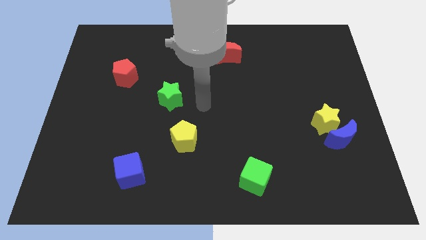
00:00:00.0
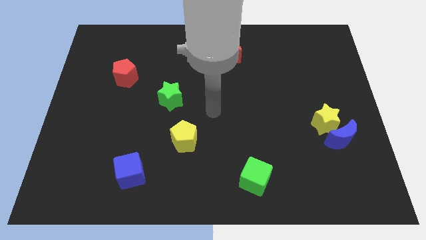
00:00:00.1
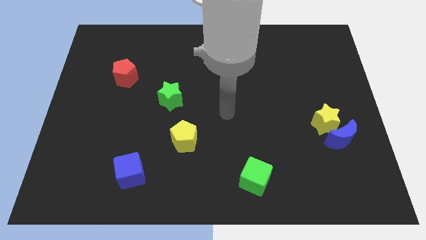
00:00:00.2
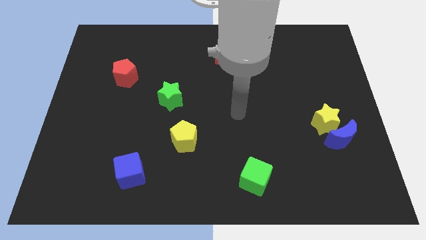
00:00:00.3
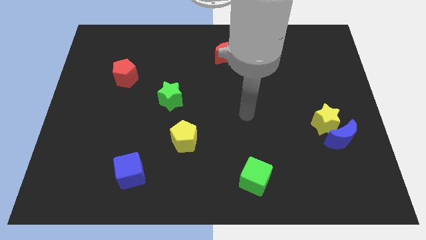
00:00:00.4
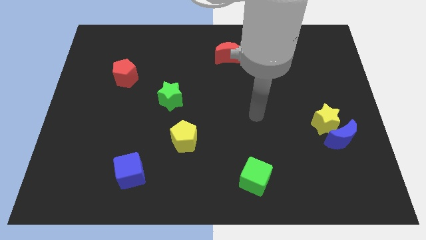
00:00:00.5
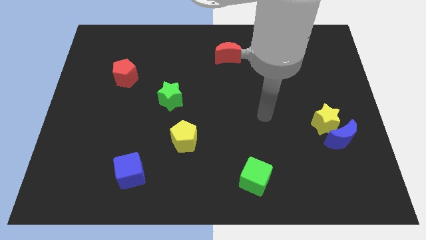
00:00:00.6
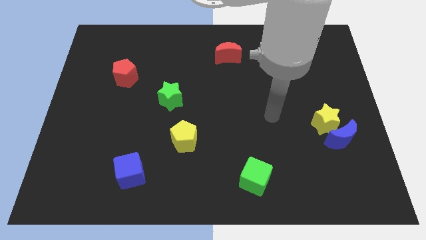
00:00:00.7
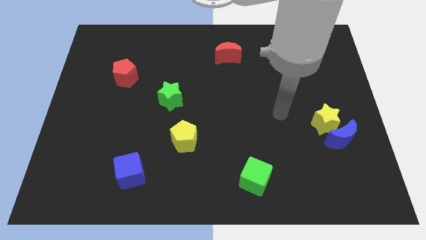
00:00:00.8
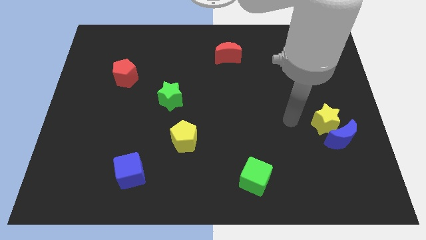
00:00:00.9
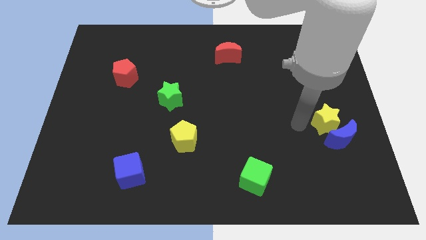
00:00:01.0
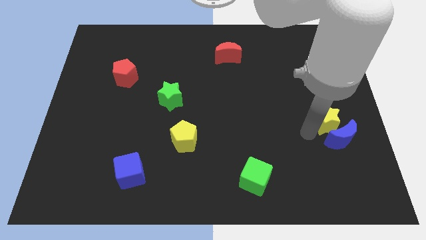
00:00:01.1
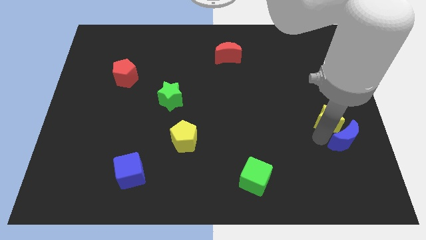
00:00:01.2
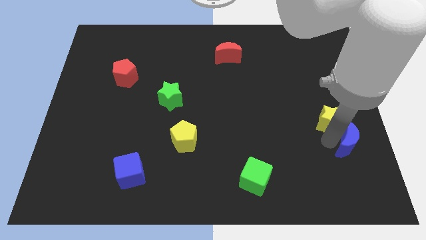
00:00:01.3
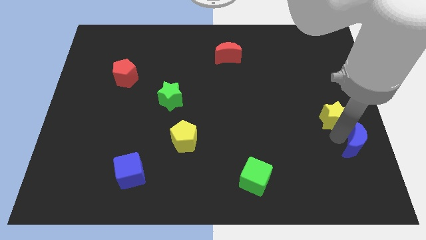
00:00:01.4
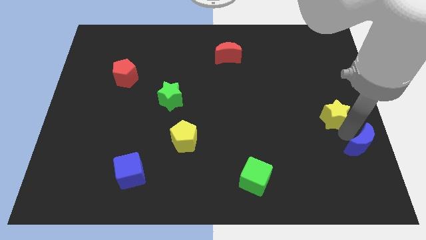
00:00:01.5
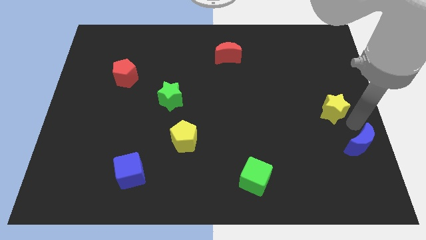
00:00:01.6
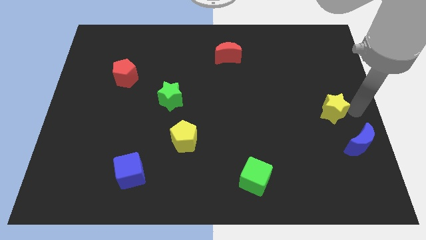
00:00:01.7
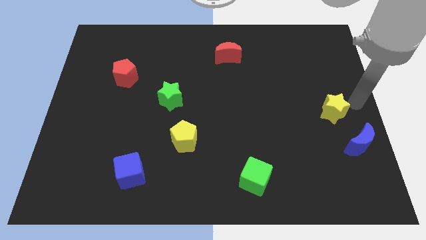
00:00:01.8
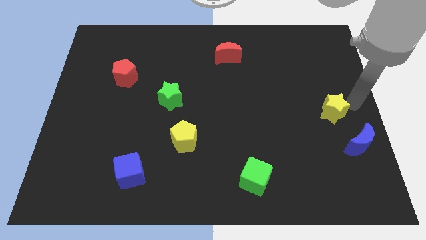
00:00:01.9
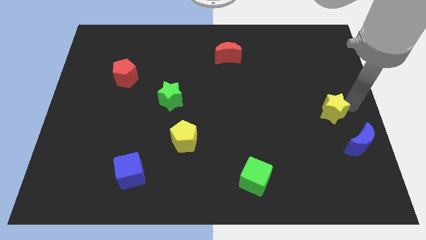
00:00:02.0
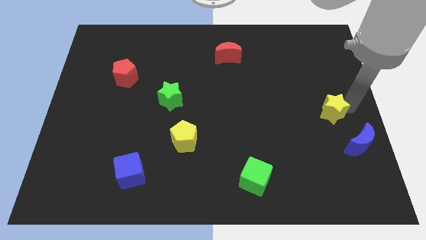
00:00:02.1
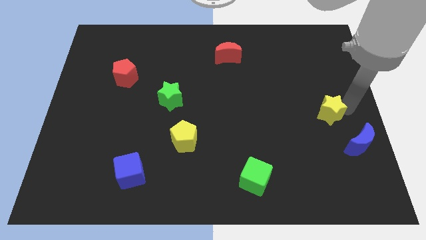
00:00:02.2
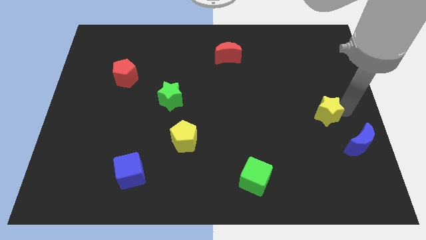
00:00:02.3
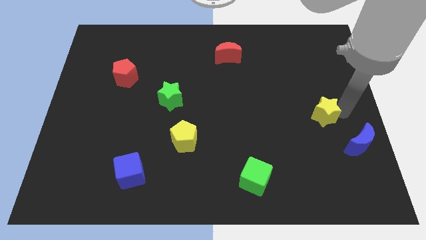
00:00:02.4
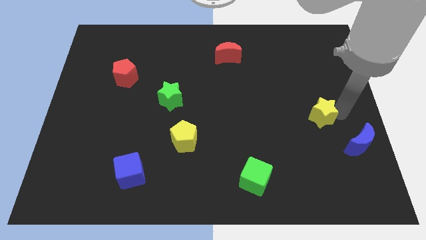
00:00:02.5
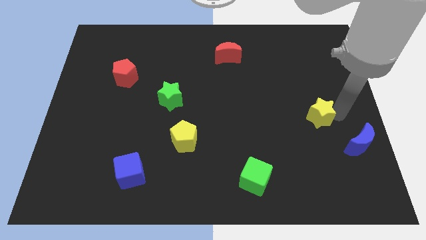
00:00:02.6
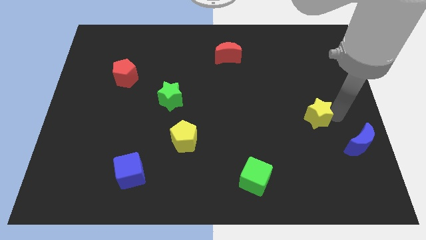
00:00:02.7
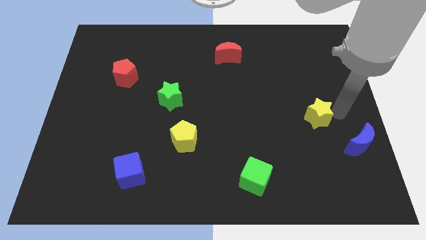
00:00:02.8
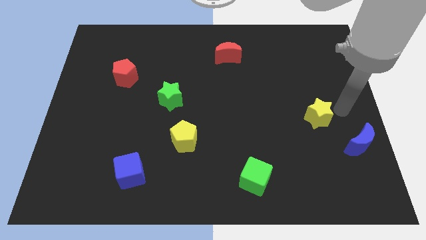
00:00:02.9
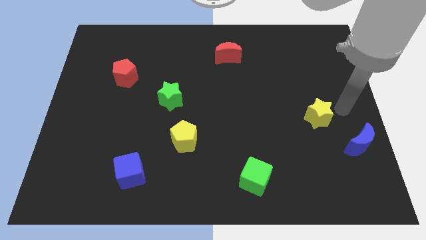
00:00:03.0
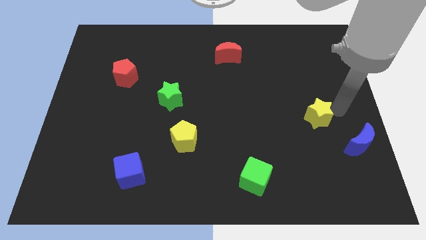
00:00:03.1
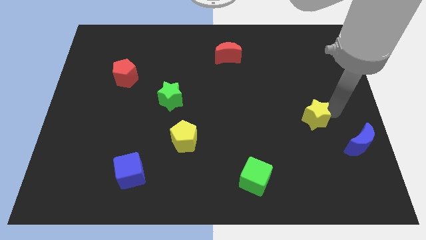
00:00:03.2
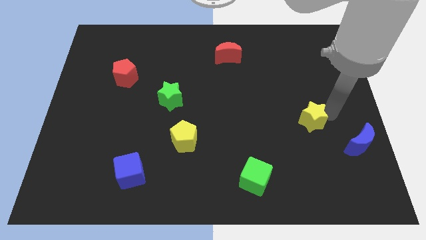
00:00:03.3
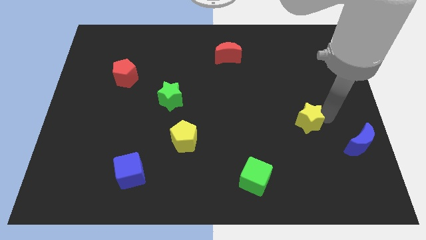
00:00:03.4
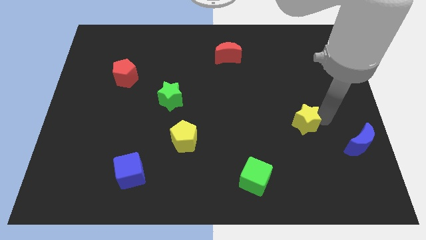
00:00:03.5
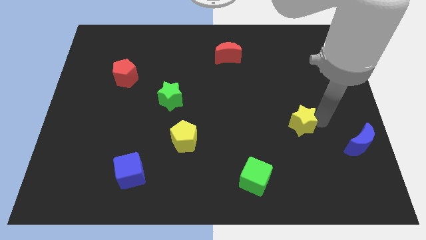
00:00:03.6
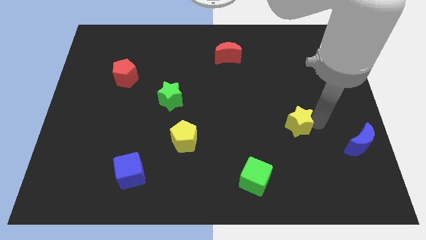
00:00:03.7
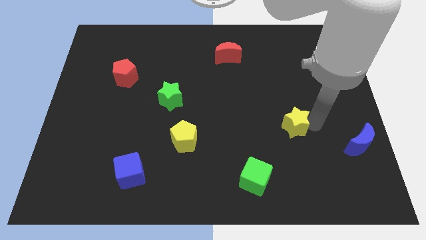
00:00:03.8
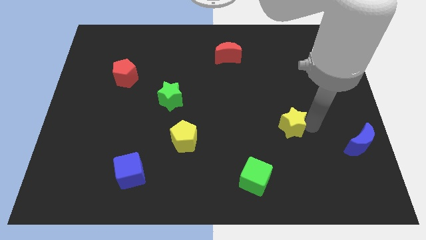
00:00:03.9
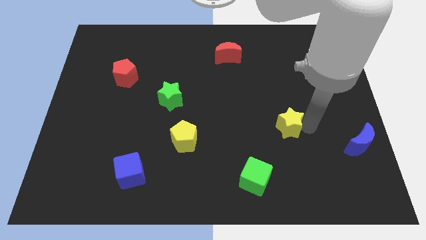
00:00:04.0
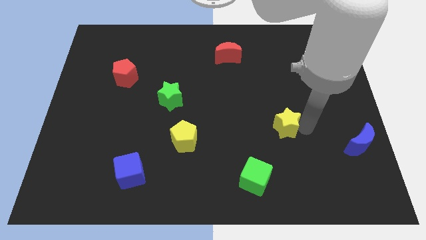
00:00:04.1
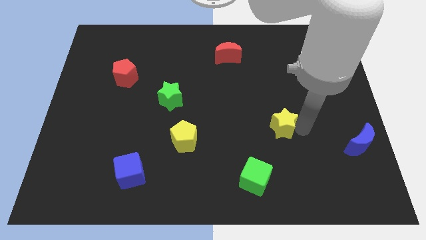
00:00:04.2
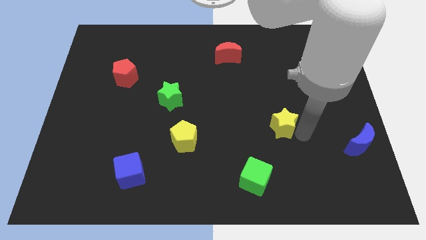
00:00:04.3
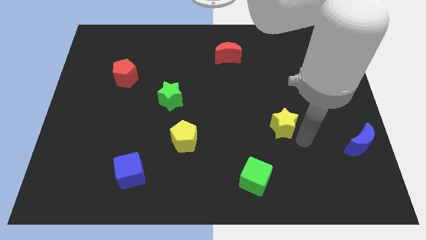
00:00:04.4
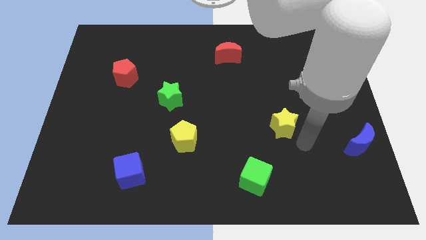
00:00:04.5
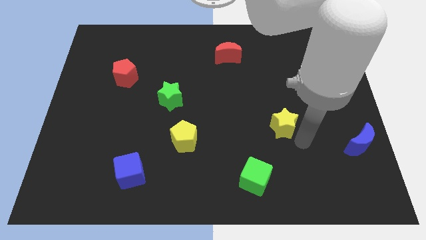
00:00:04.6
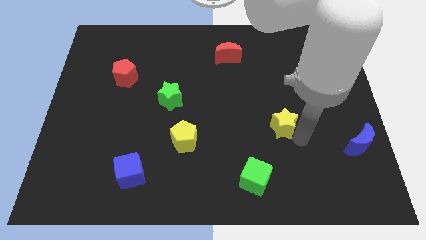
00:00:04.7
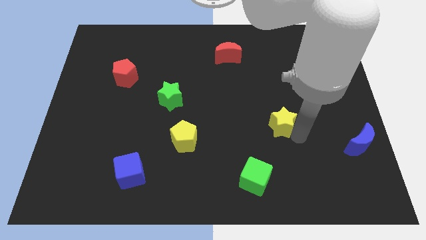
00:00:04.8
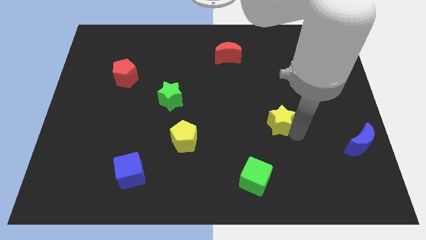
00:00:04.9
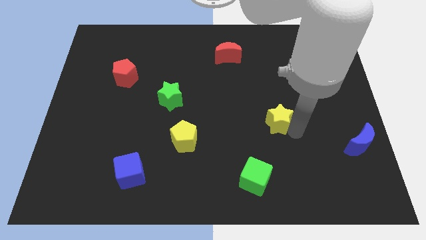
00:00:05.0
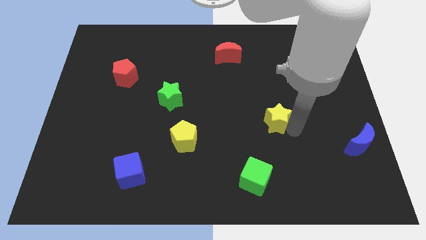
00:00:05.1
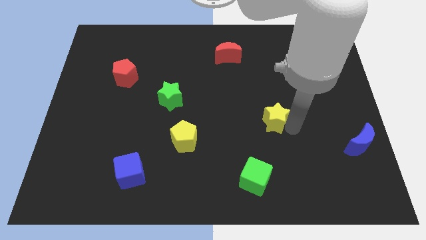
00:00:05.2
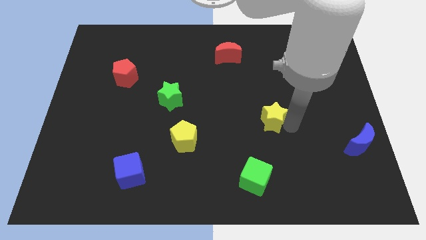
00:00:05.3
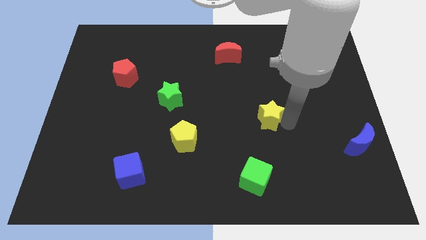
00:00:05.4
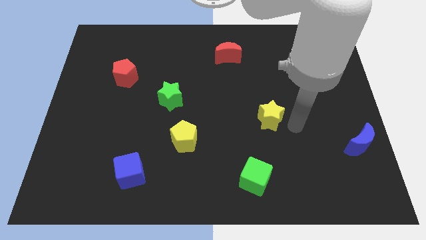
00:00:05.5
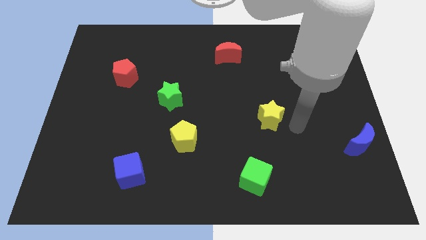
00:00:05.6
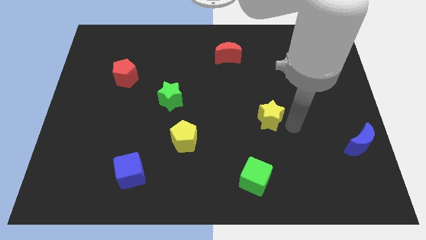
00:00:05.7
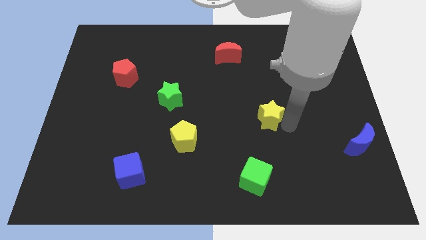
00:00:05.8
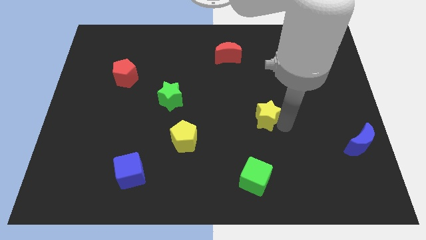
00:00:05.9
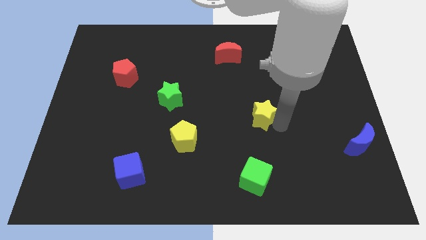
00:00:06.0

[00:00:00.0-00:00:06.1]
push the yellow star to the center of the board

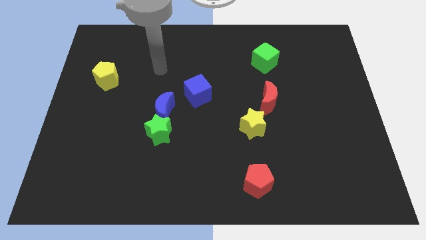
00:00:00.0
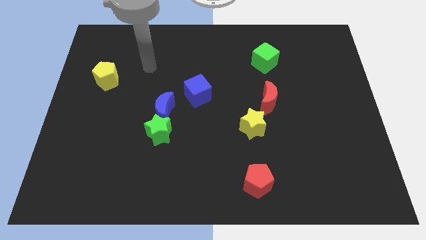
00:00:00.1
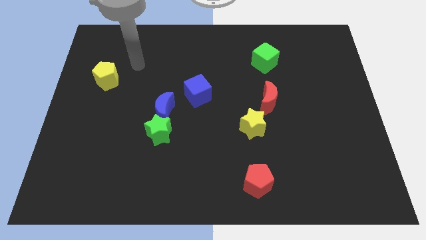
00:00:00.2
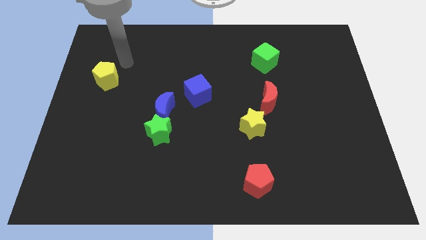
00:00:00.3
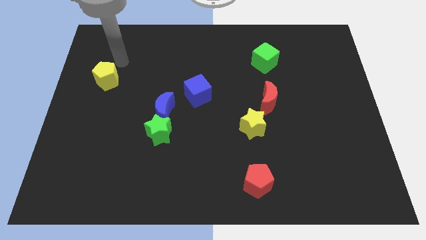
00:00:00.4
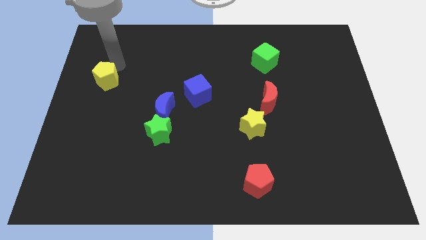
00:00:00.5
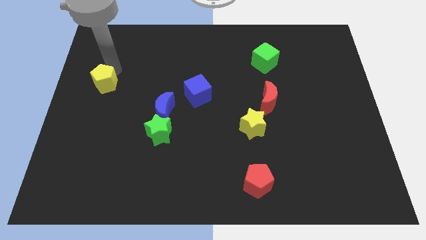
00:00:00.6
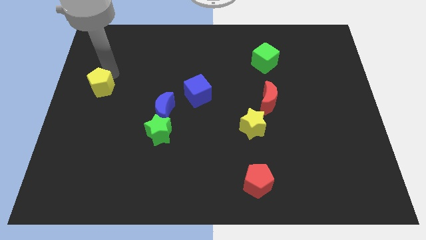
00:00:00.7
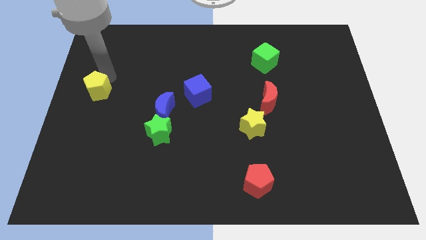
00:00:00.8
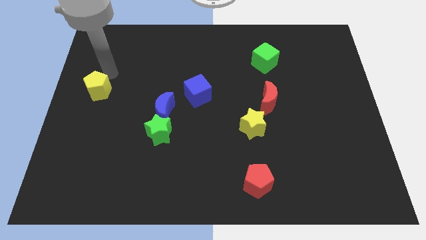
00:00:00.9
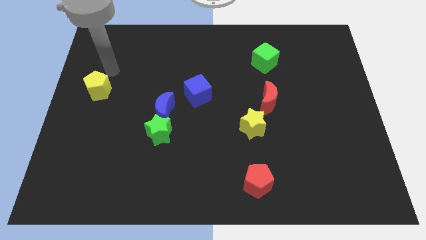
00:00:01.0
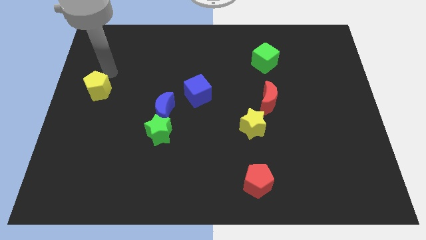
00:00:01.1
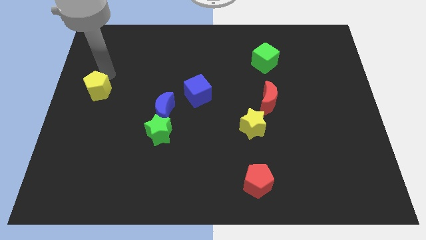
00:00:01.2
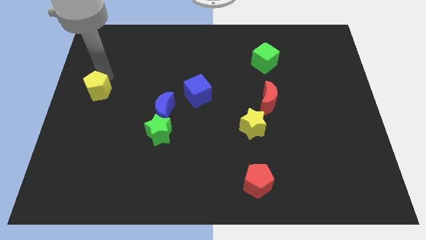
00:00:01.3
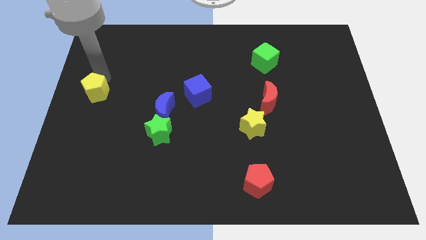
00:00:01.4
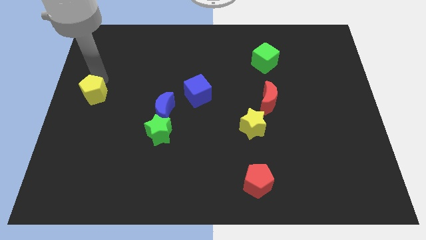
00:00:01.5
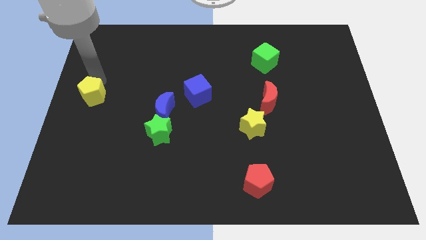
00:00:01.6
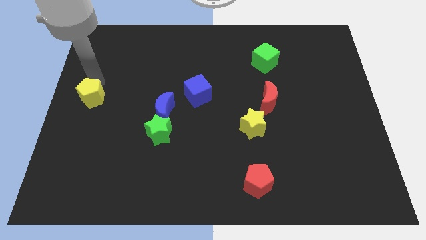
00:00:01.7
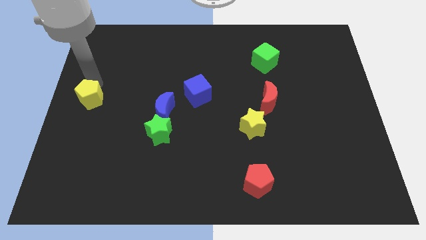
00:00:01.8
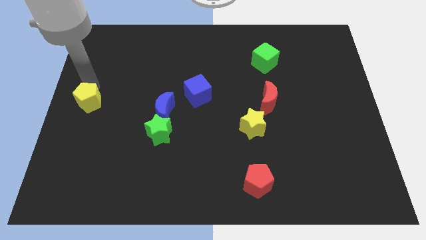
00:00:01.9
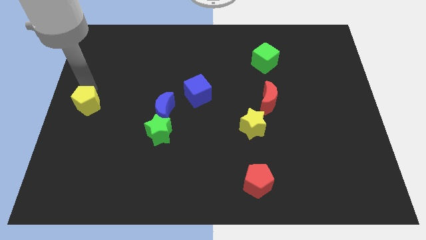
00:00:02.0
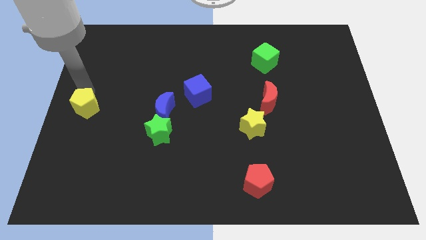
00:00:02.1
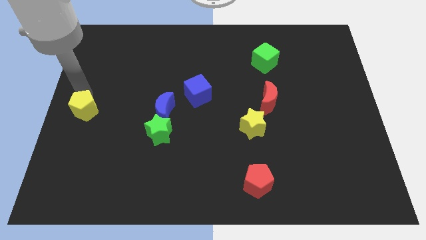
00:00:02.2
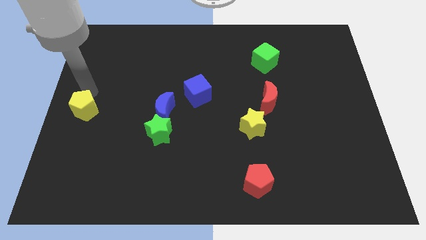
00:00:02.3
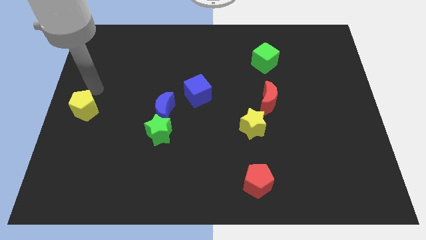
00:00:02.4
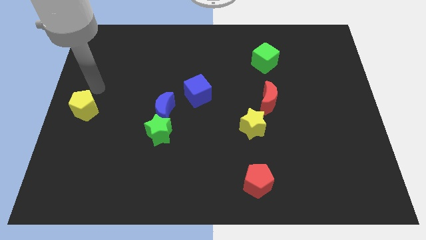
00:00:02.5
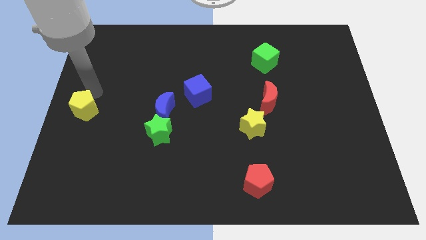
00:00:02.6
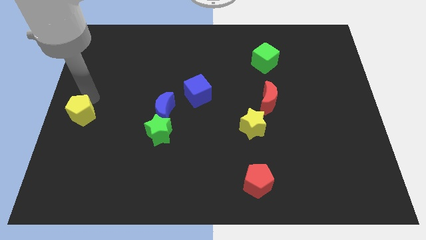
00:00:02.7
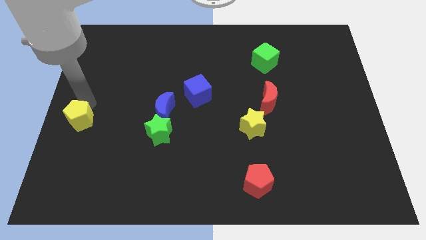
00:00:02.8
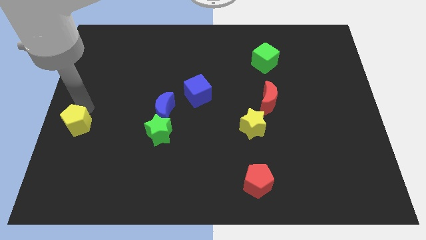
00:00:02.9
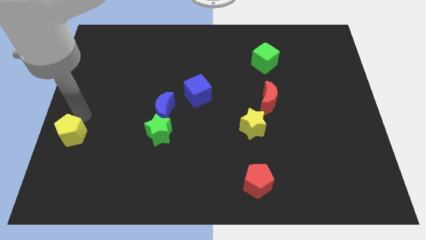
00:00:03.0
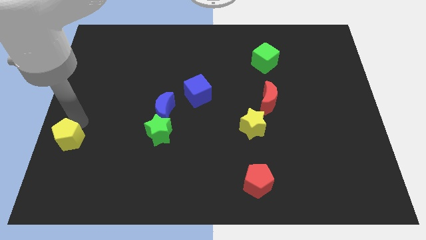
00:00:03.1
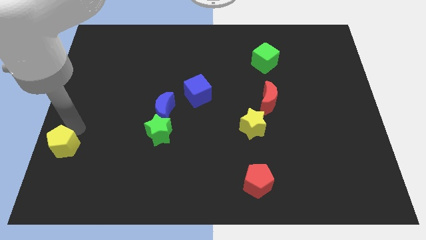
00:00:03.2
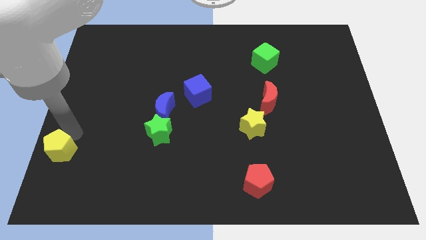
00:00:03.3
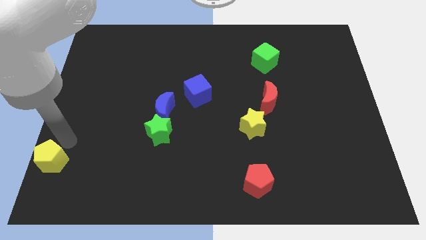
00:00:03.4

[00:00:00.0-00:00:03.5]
move the yellow pentagon to the bottom left corner
